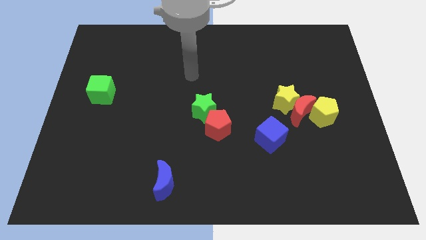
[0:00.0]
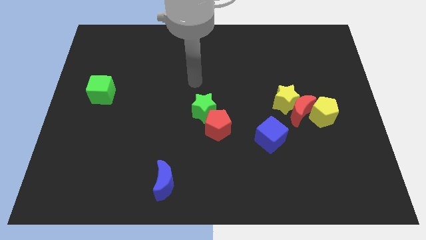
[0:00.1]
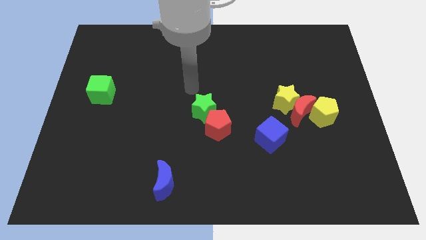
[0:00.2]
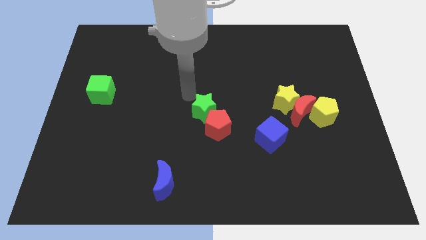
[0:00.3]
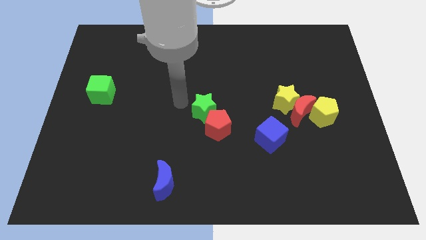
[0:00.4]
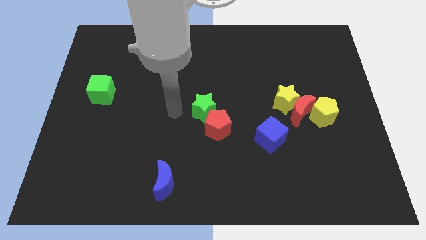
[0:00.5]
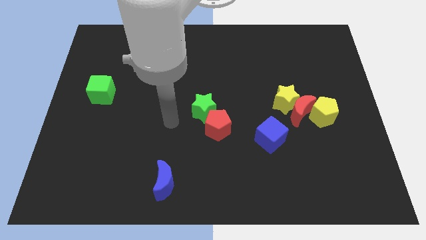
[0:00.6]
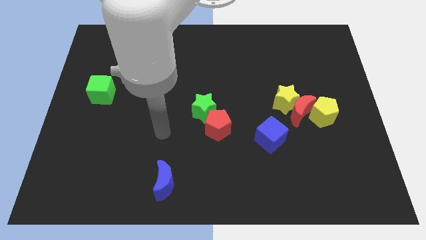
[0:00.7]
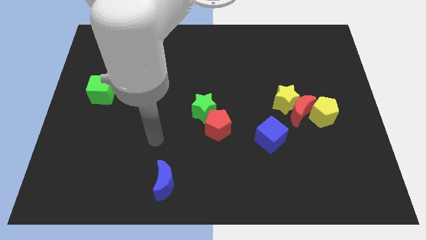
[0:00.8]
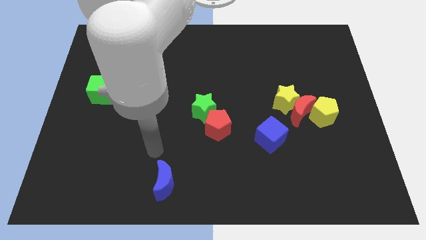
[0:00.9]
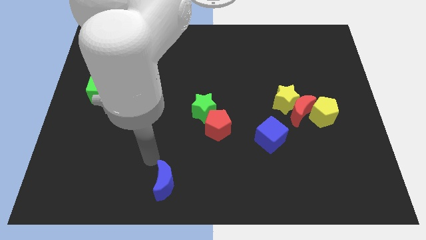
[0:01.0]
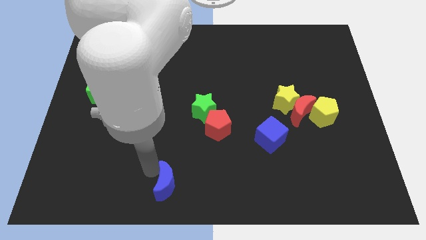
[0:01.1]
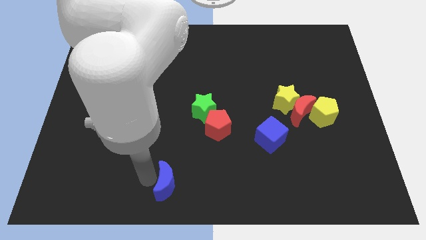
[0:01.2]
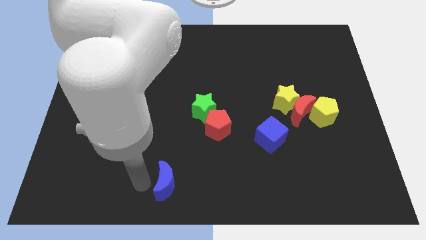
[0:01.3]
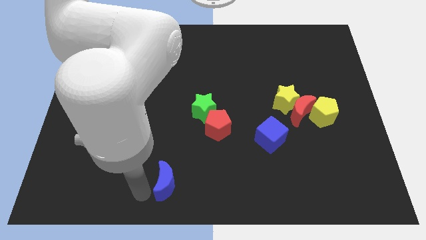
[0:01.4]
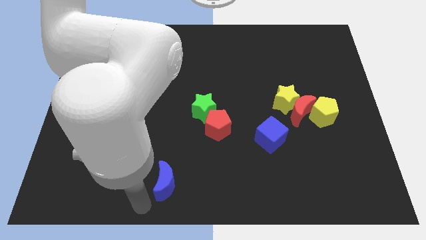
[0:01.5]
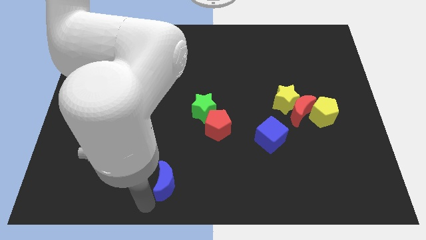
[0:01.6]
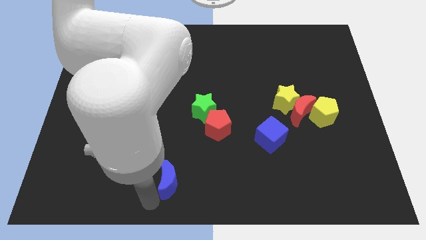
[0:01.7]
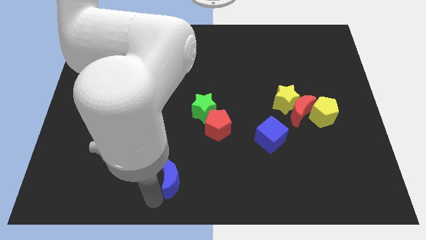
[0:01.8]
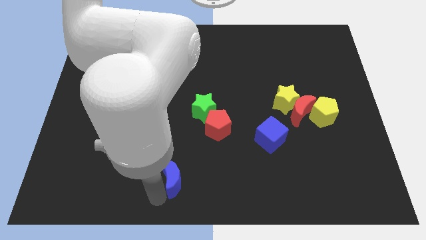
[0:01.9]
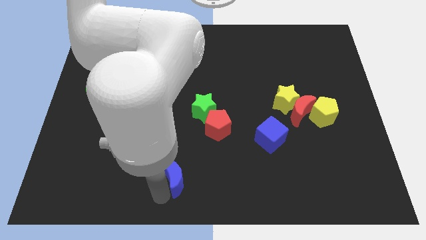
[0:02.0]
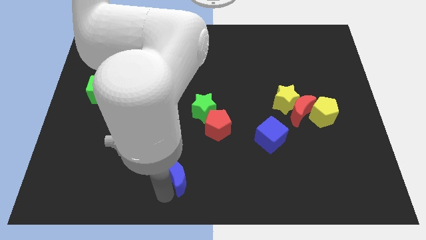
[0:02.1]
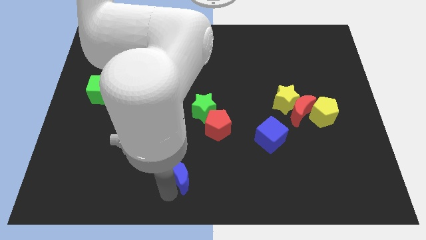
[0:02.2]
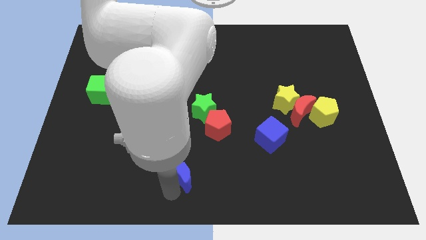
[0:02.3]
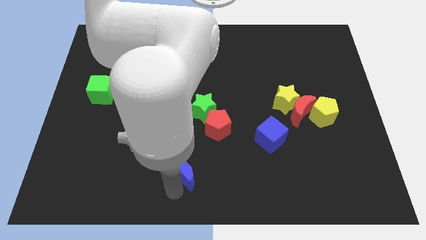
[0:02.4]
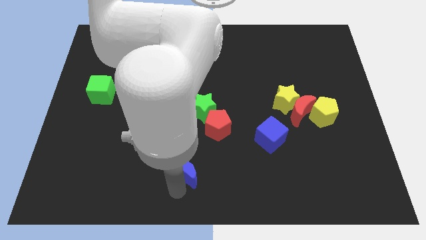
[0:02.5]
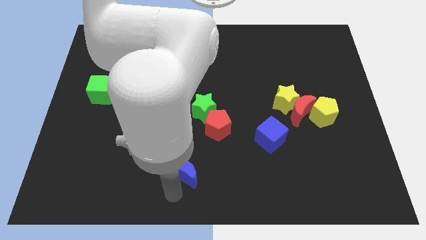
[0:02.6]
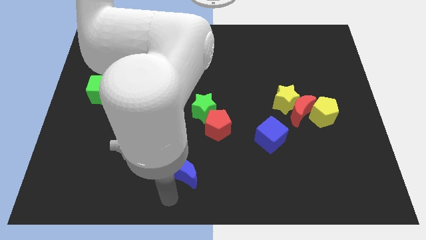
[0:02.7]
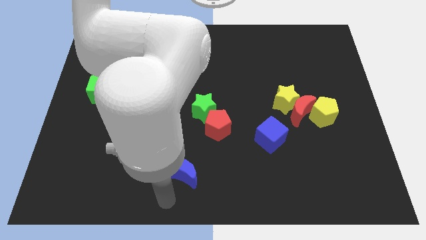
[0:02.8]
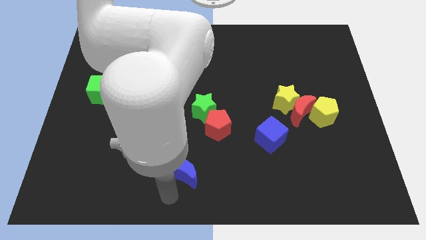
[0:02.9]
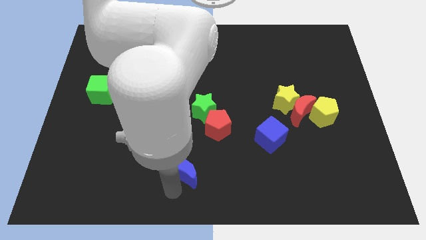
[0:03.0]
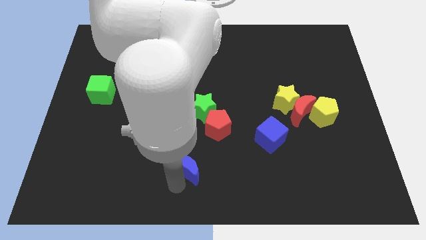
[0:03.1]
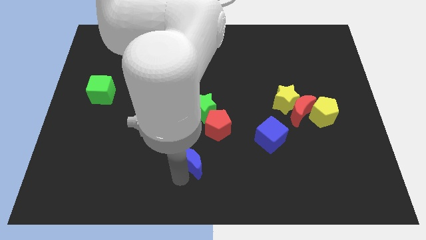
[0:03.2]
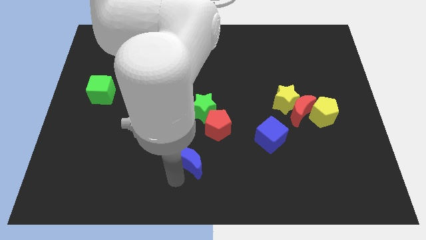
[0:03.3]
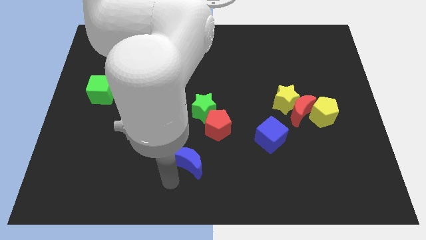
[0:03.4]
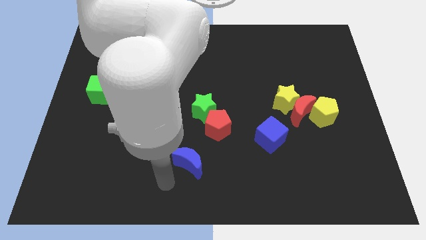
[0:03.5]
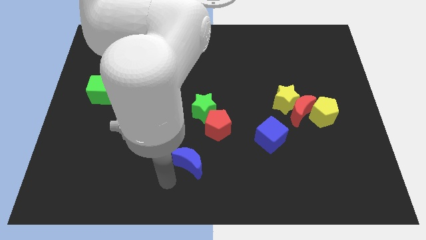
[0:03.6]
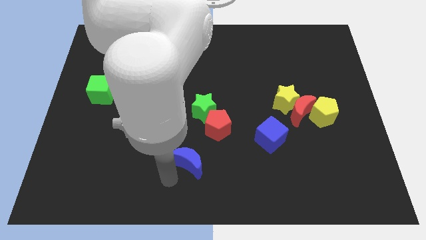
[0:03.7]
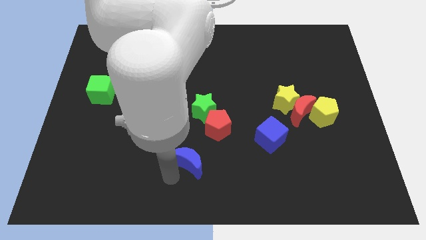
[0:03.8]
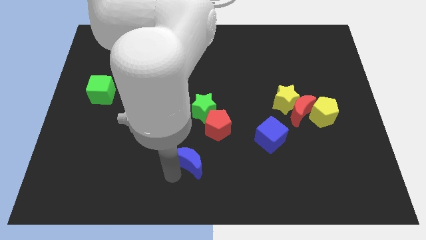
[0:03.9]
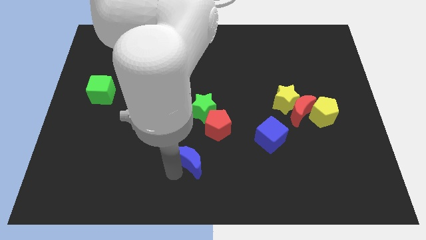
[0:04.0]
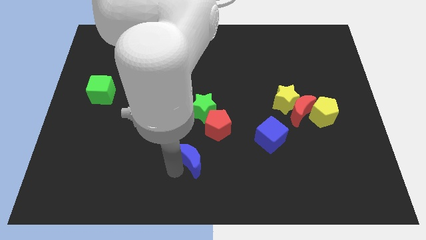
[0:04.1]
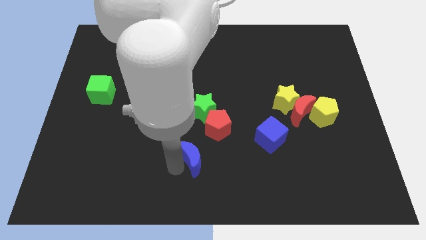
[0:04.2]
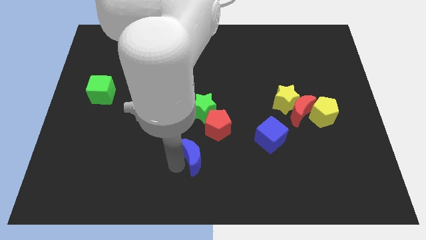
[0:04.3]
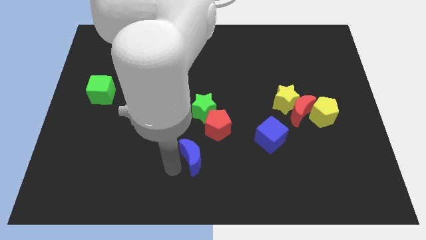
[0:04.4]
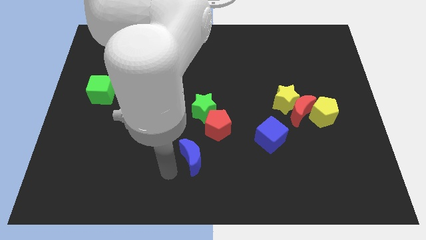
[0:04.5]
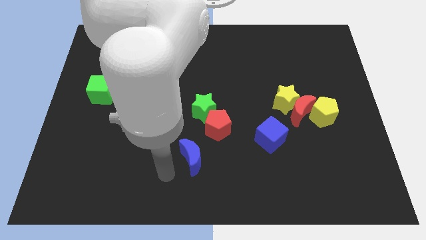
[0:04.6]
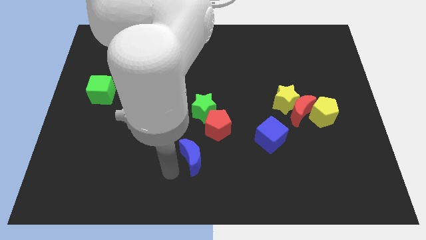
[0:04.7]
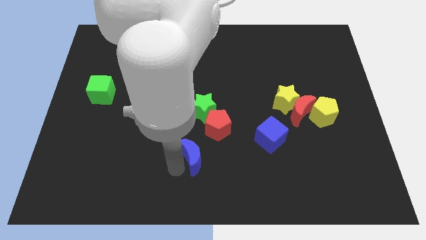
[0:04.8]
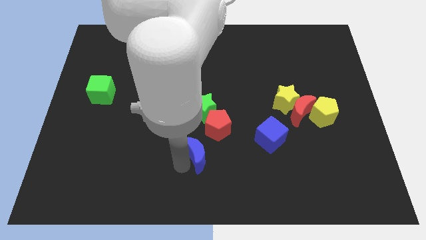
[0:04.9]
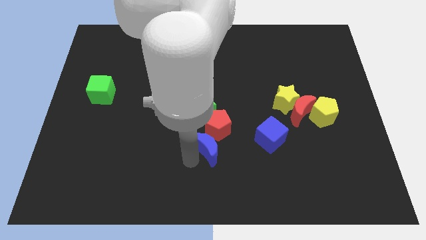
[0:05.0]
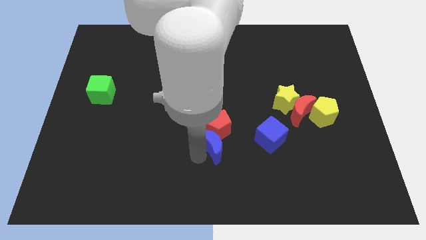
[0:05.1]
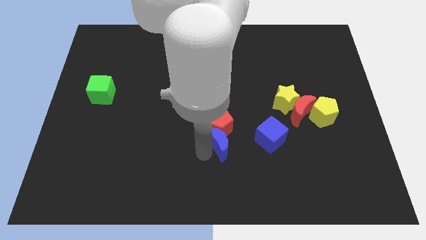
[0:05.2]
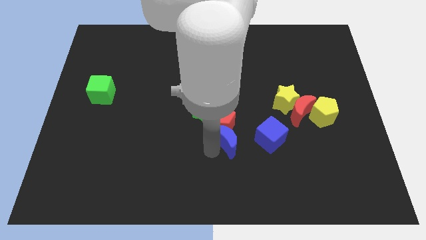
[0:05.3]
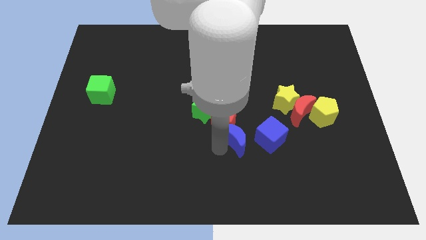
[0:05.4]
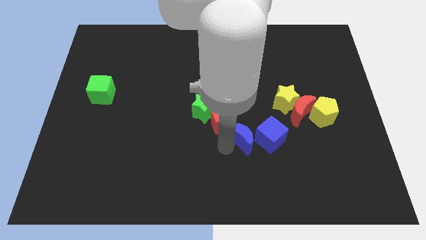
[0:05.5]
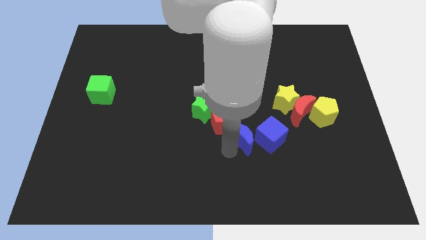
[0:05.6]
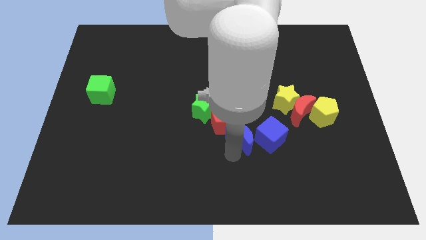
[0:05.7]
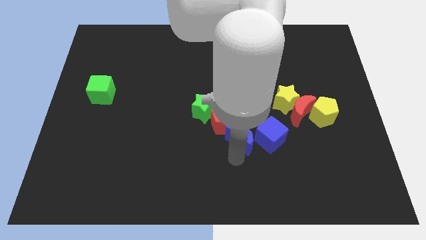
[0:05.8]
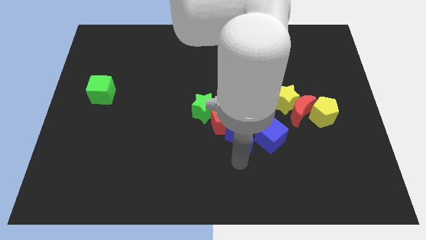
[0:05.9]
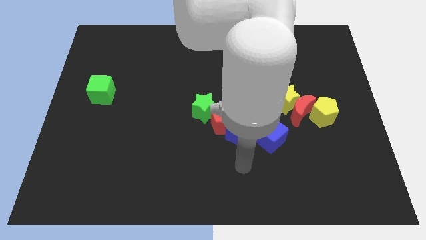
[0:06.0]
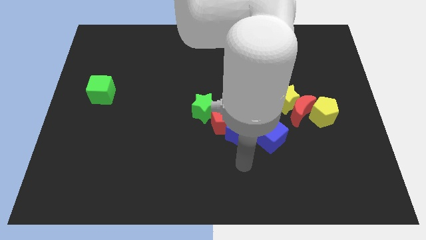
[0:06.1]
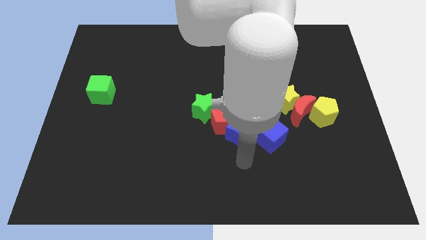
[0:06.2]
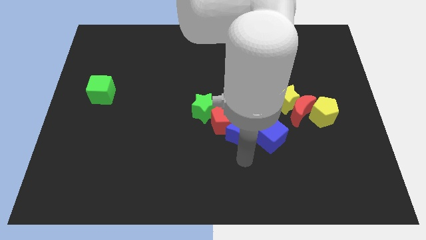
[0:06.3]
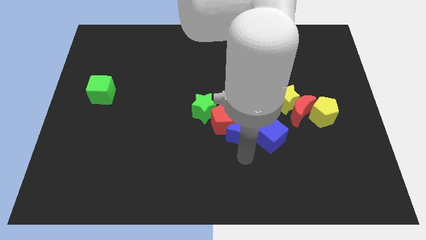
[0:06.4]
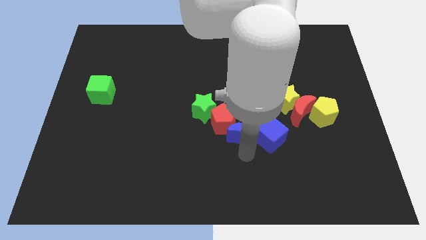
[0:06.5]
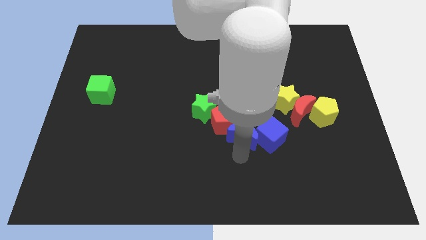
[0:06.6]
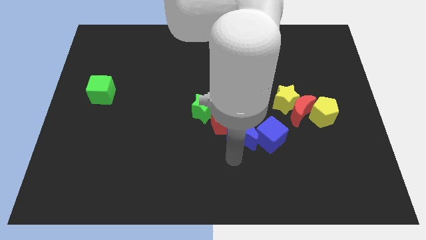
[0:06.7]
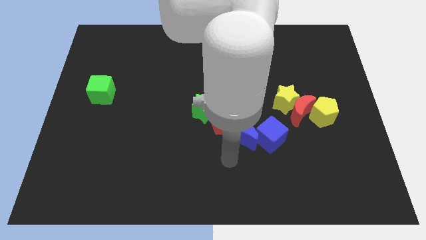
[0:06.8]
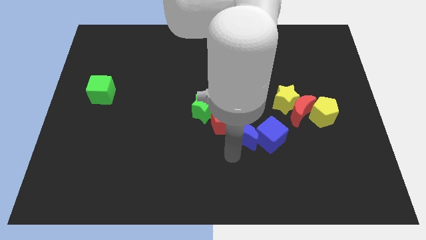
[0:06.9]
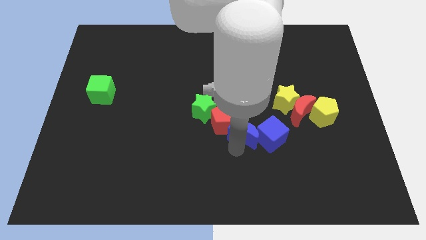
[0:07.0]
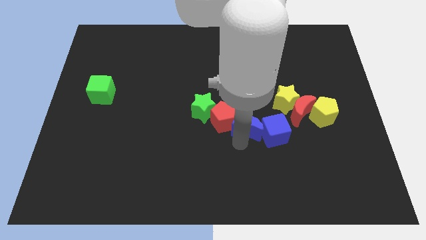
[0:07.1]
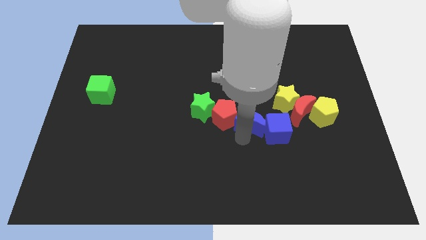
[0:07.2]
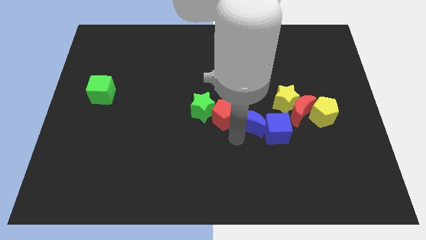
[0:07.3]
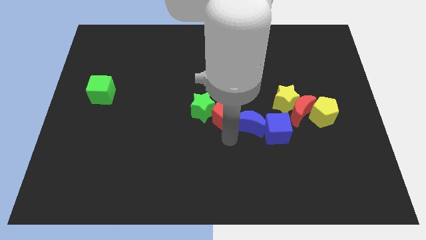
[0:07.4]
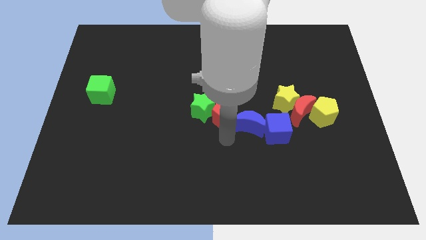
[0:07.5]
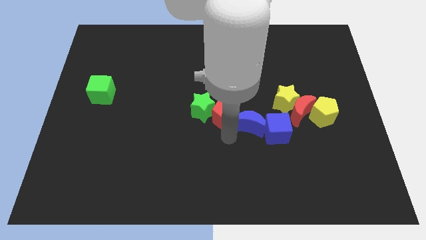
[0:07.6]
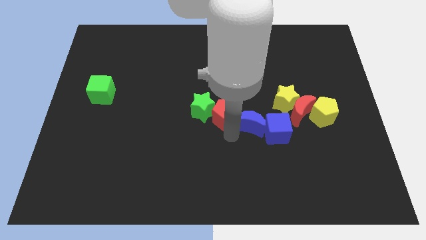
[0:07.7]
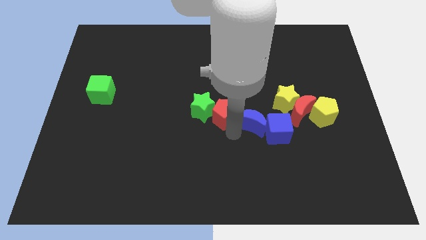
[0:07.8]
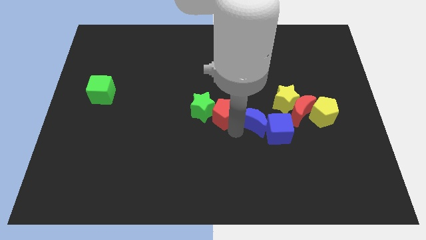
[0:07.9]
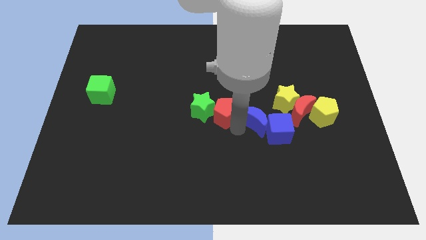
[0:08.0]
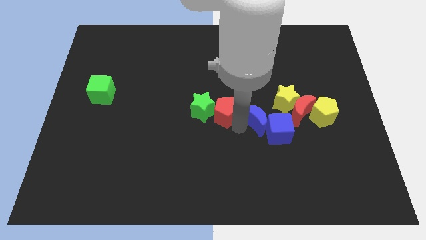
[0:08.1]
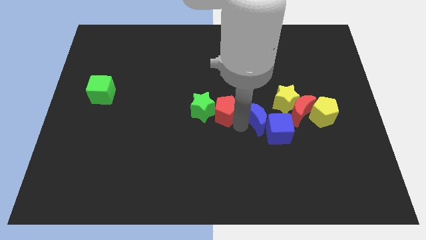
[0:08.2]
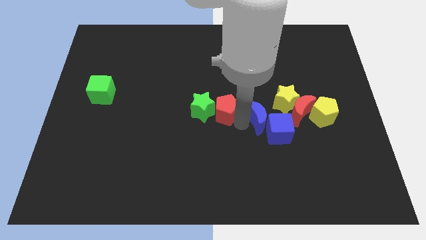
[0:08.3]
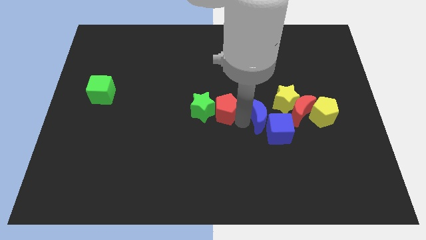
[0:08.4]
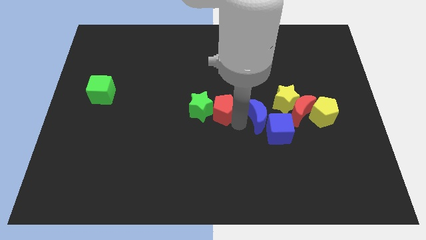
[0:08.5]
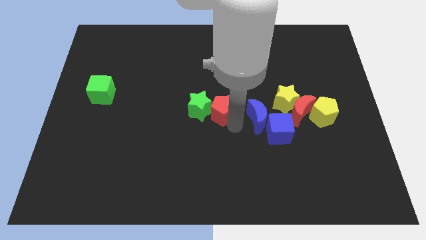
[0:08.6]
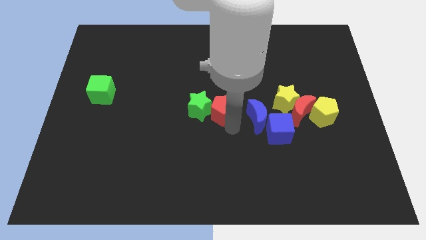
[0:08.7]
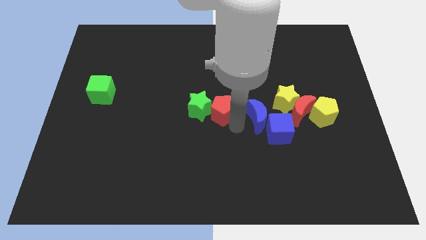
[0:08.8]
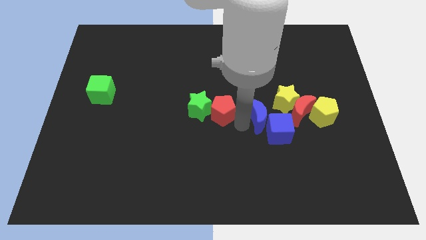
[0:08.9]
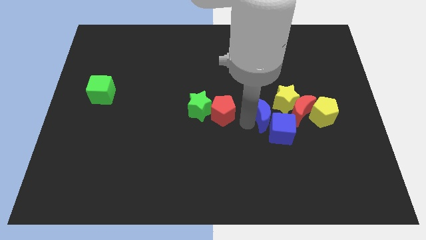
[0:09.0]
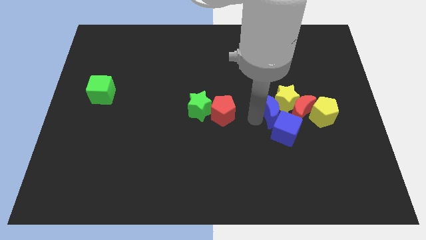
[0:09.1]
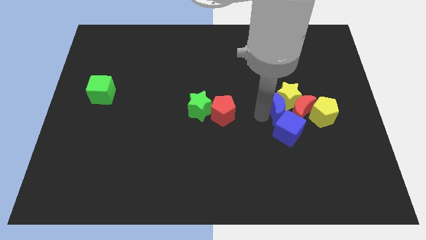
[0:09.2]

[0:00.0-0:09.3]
slide the blue moon next to the red moon
